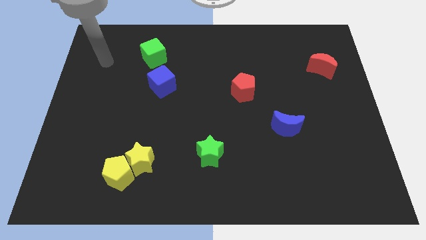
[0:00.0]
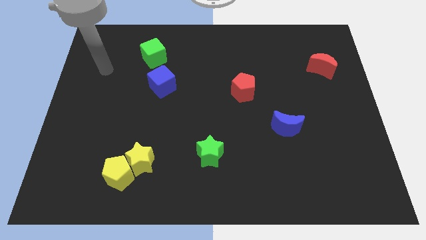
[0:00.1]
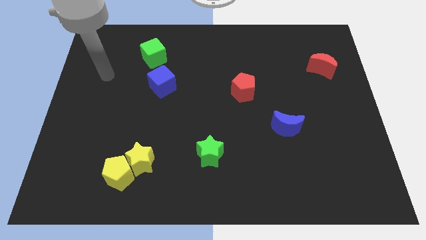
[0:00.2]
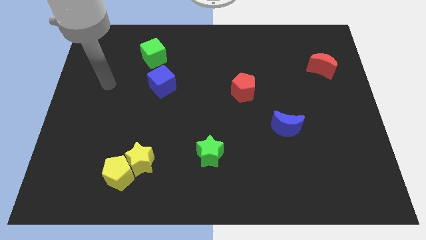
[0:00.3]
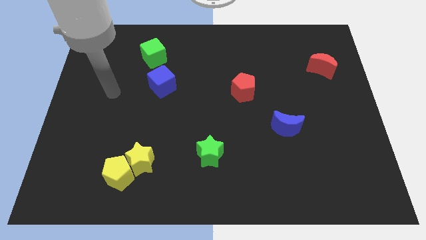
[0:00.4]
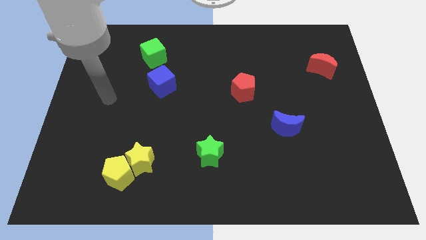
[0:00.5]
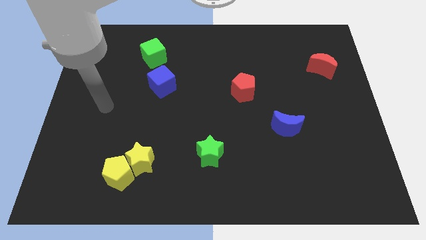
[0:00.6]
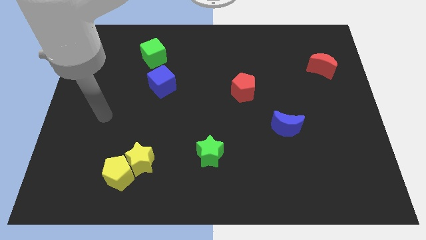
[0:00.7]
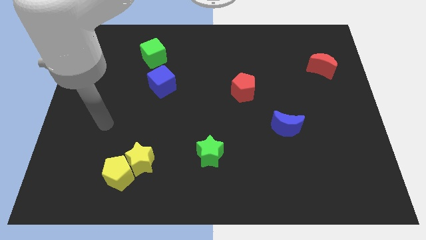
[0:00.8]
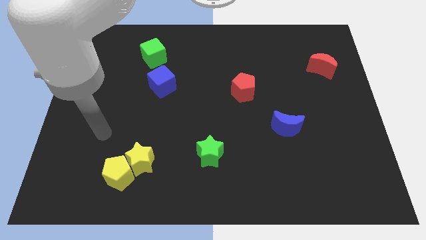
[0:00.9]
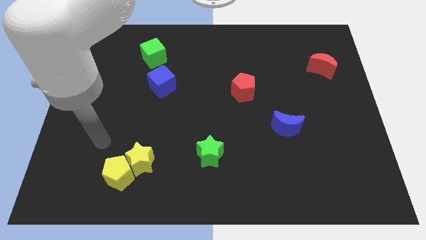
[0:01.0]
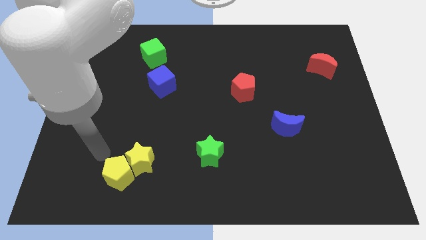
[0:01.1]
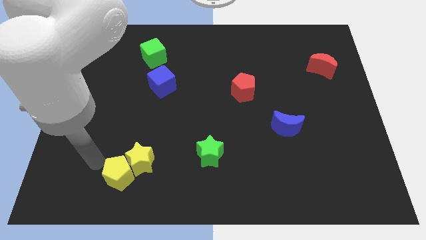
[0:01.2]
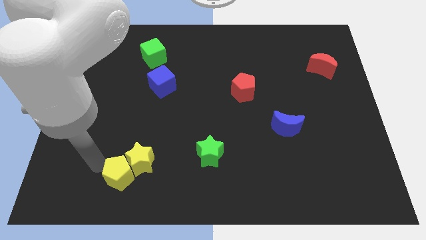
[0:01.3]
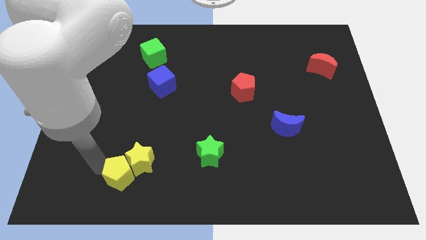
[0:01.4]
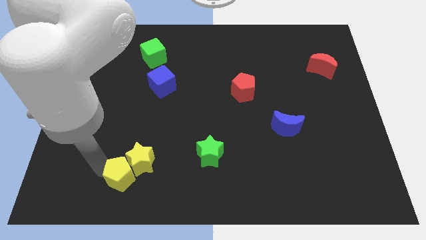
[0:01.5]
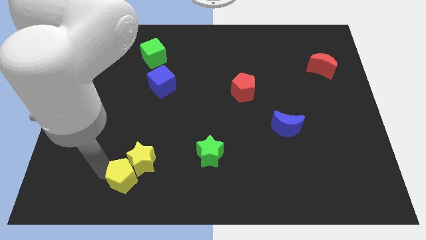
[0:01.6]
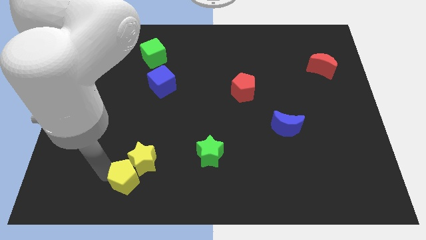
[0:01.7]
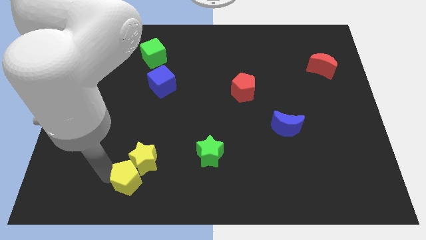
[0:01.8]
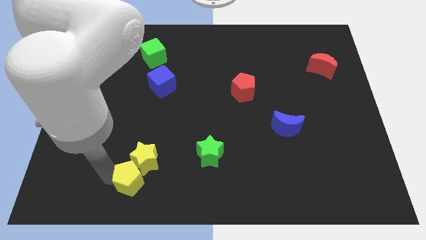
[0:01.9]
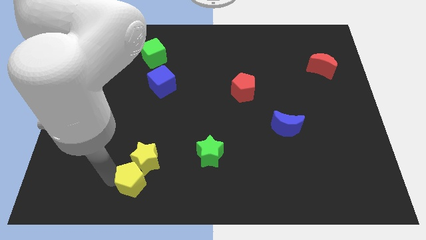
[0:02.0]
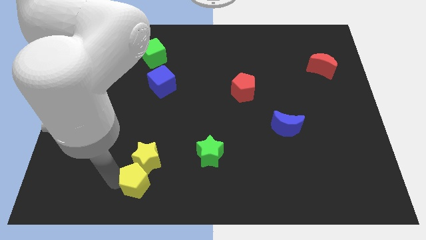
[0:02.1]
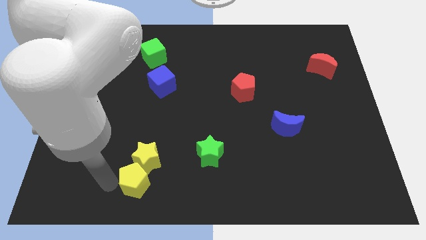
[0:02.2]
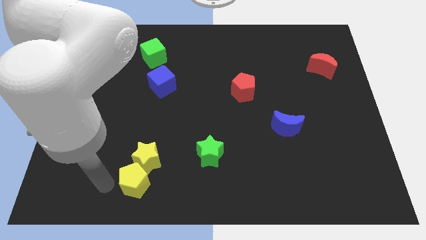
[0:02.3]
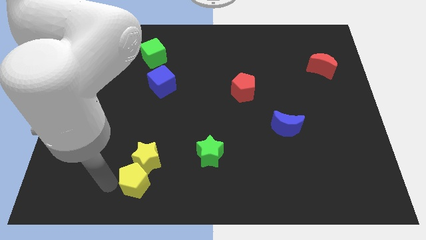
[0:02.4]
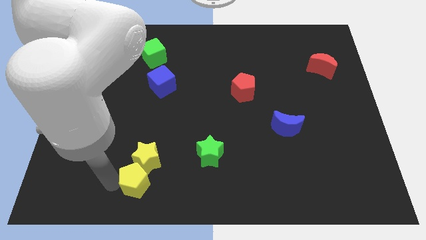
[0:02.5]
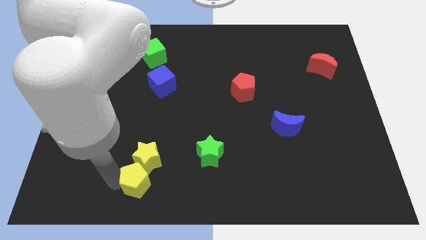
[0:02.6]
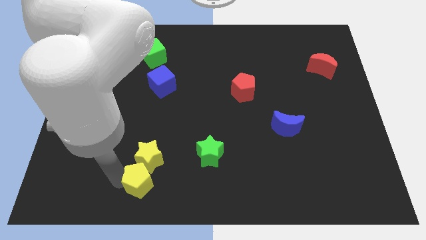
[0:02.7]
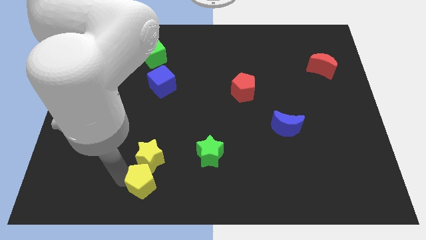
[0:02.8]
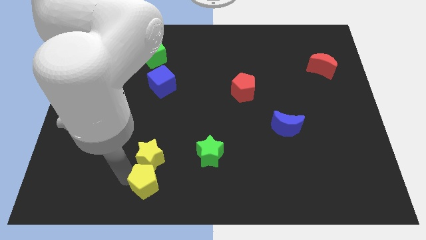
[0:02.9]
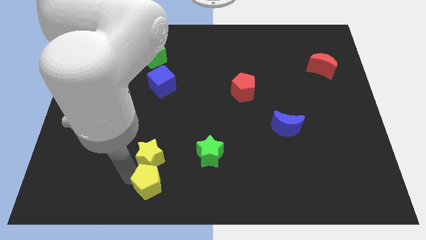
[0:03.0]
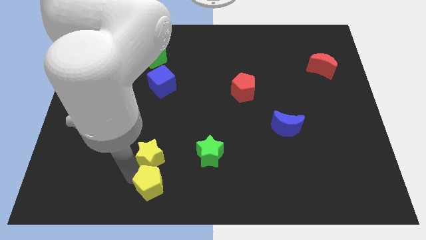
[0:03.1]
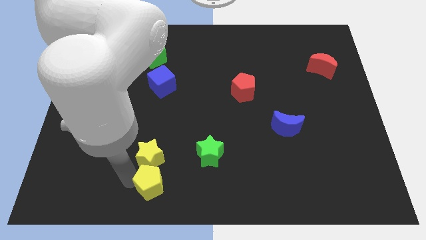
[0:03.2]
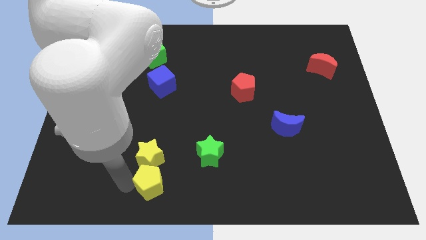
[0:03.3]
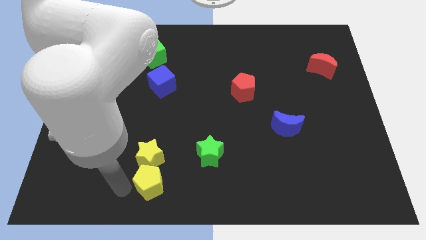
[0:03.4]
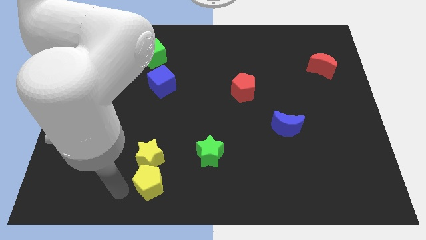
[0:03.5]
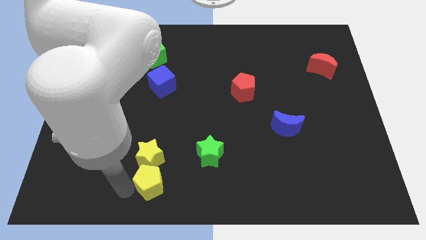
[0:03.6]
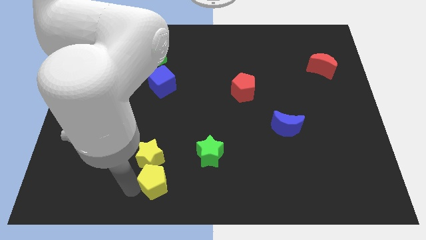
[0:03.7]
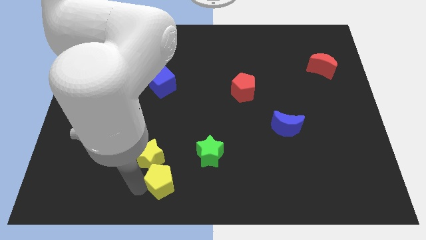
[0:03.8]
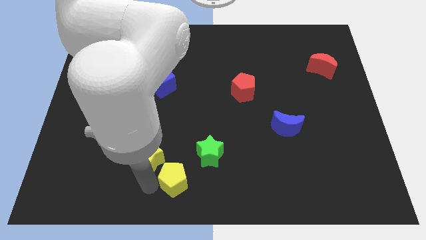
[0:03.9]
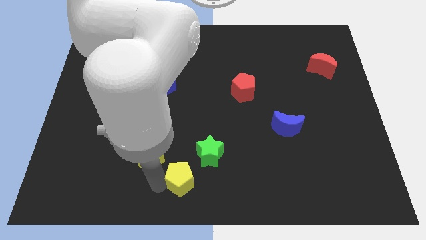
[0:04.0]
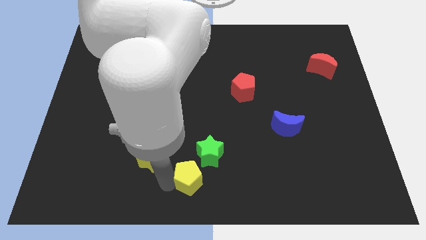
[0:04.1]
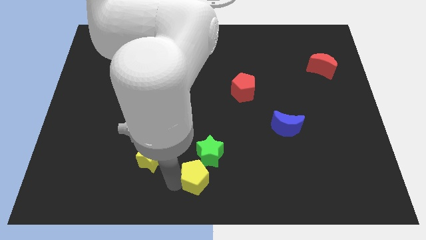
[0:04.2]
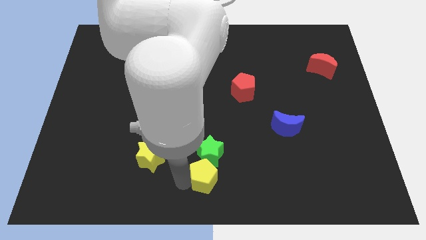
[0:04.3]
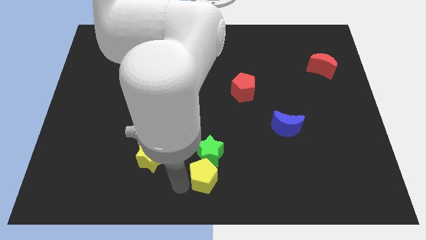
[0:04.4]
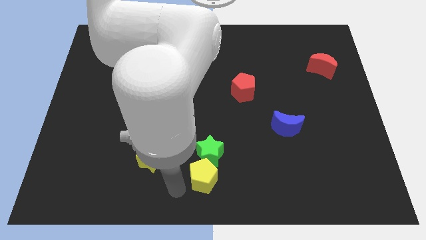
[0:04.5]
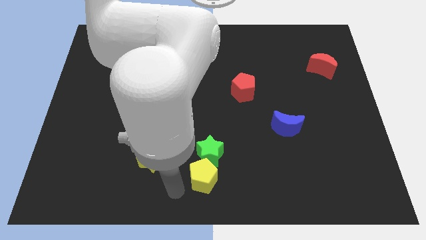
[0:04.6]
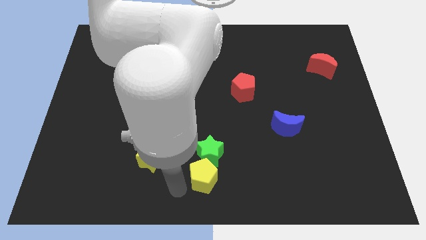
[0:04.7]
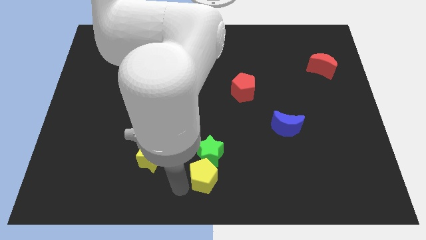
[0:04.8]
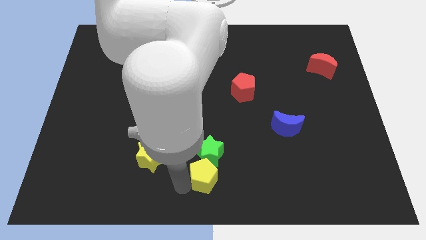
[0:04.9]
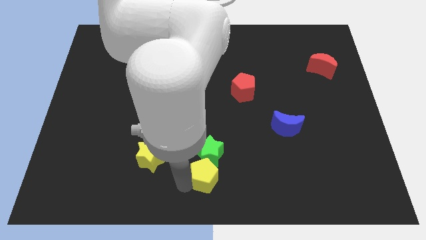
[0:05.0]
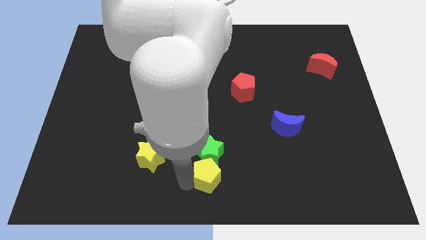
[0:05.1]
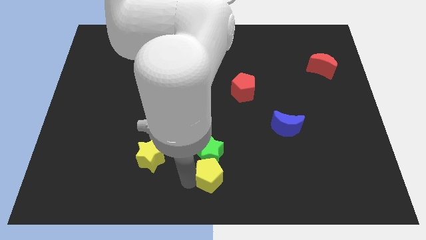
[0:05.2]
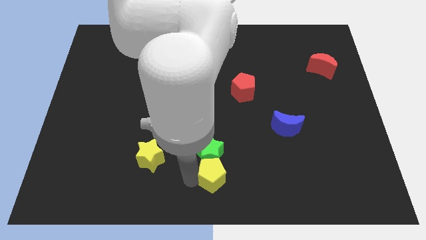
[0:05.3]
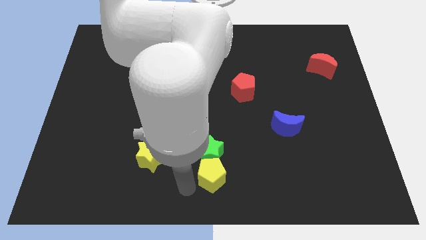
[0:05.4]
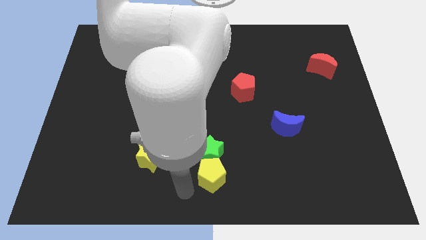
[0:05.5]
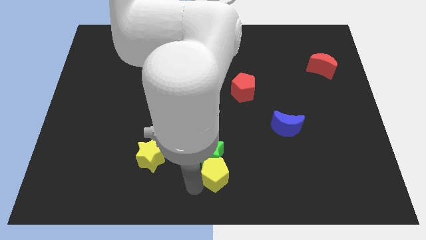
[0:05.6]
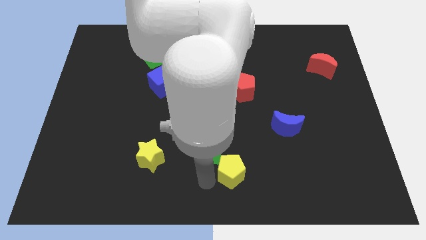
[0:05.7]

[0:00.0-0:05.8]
put the yellow pentagon right of the green star

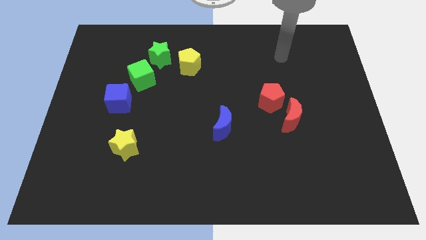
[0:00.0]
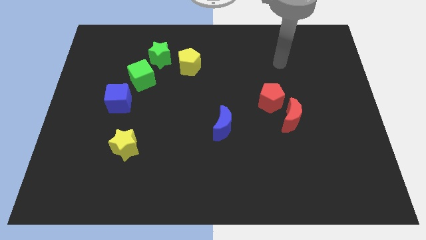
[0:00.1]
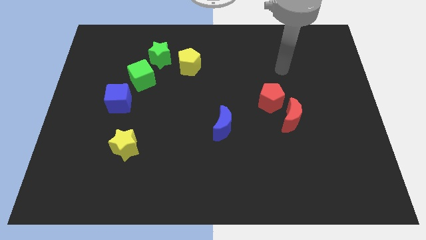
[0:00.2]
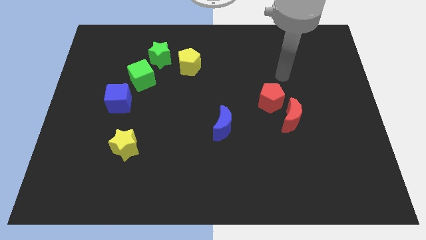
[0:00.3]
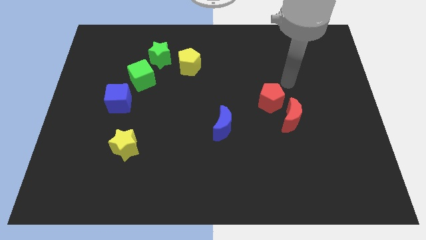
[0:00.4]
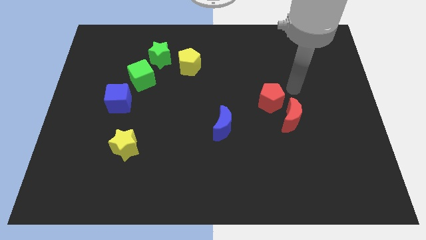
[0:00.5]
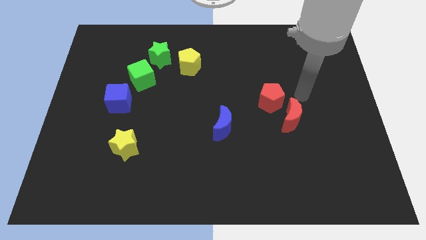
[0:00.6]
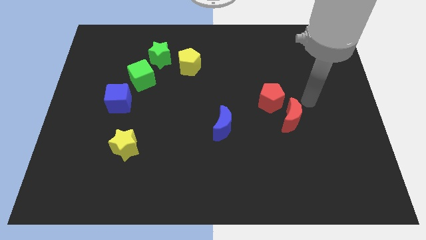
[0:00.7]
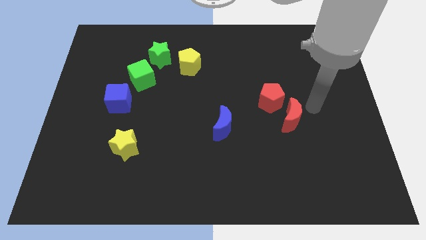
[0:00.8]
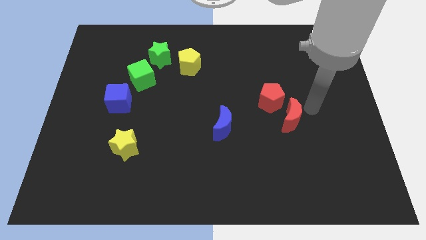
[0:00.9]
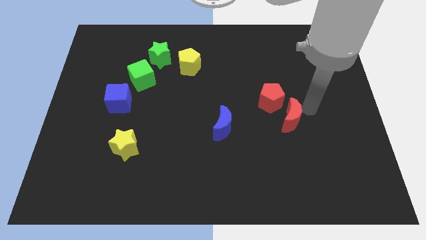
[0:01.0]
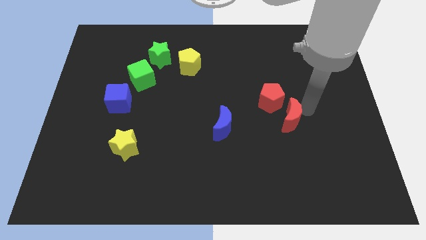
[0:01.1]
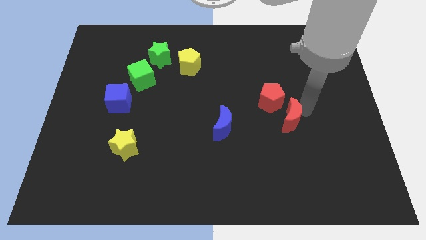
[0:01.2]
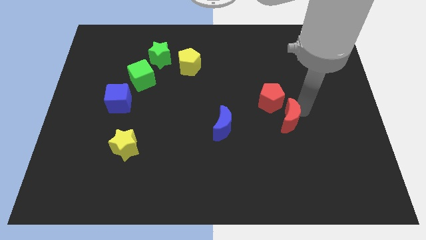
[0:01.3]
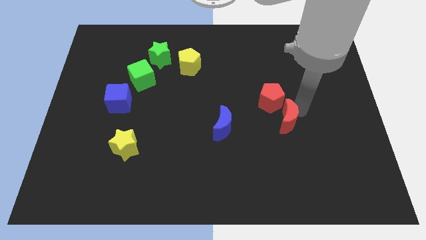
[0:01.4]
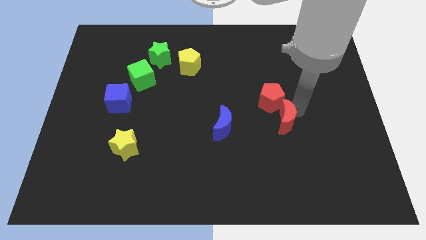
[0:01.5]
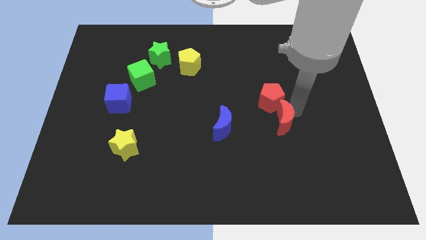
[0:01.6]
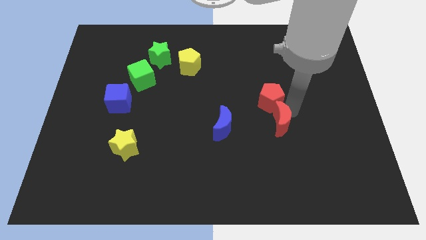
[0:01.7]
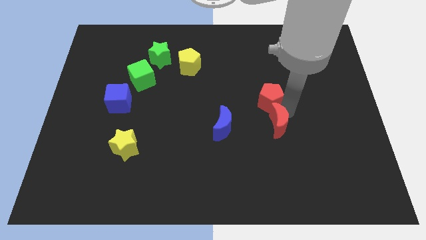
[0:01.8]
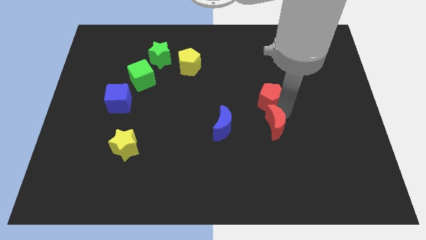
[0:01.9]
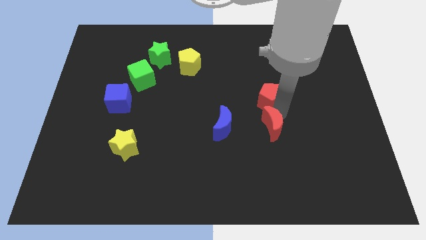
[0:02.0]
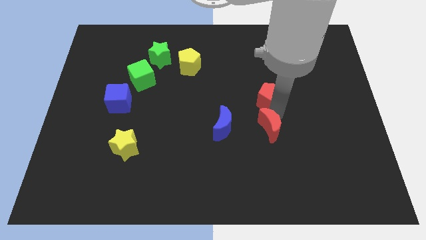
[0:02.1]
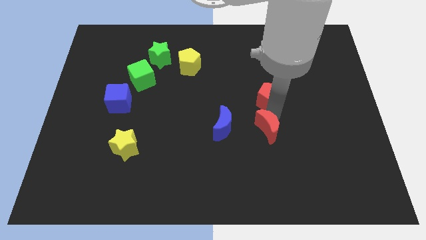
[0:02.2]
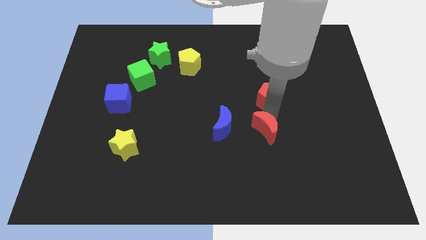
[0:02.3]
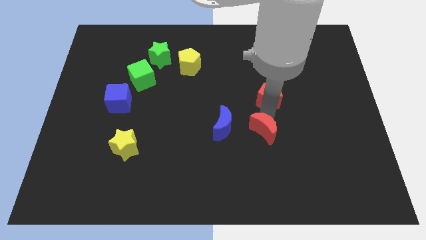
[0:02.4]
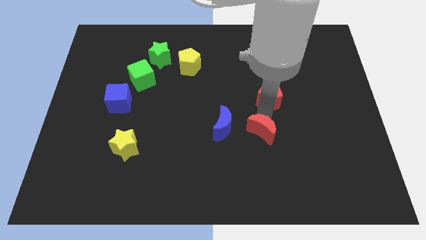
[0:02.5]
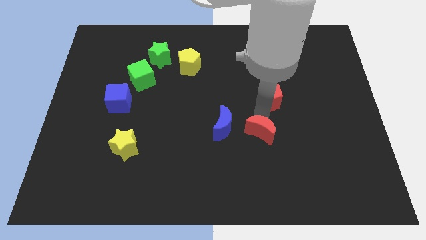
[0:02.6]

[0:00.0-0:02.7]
slide the red moon diagonally down and to the right of the blue moon
